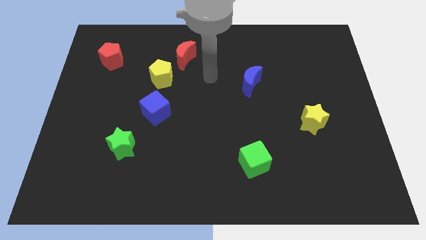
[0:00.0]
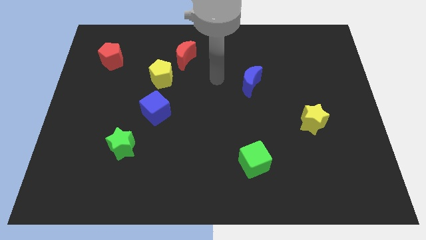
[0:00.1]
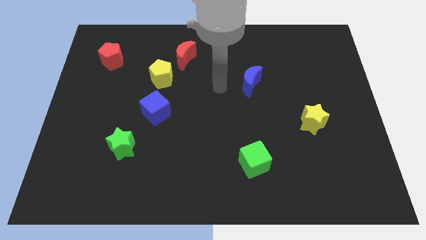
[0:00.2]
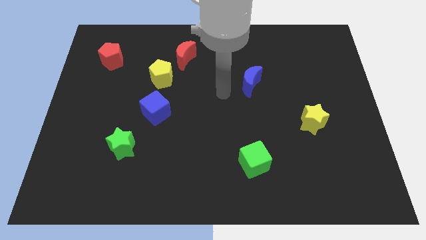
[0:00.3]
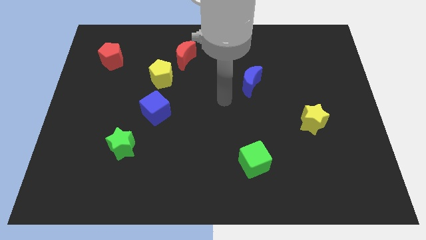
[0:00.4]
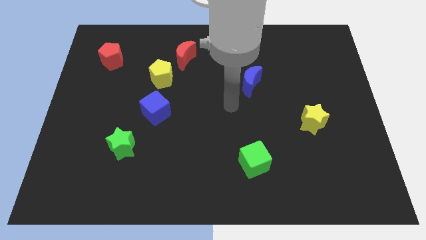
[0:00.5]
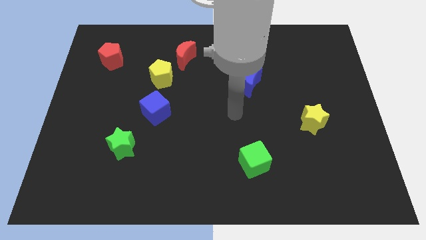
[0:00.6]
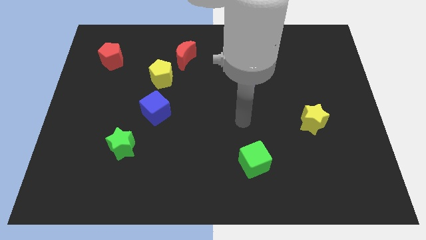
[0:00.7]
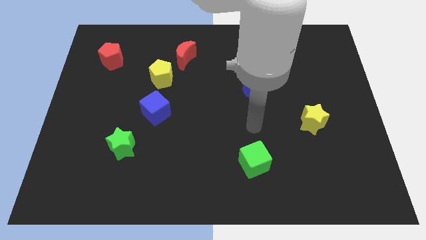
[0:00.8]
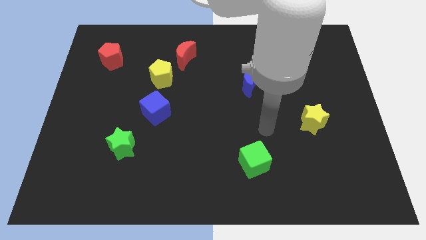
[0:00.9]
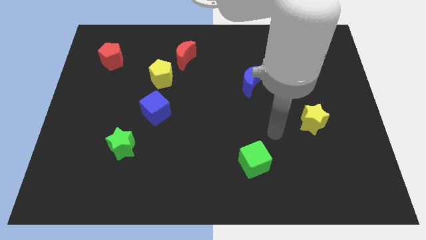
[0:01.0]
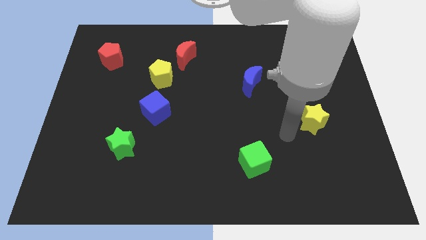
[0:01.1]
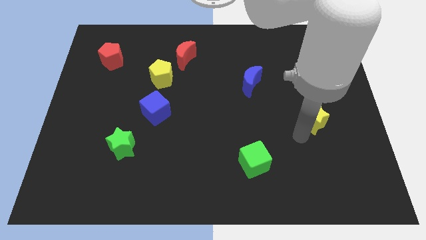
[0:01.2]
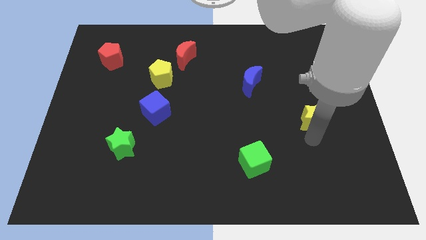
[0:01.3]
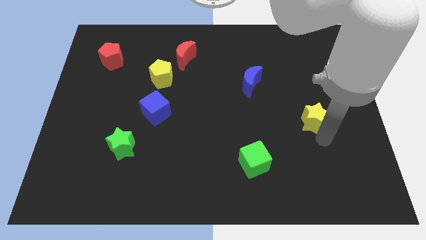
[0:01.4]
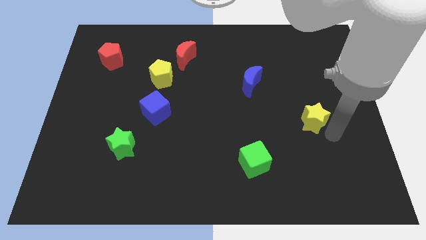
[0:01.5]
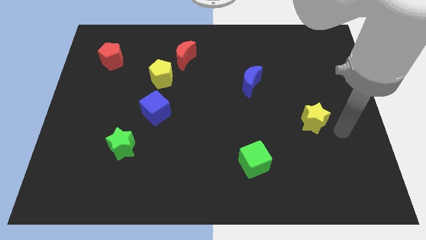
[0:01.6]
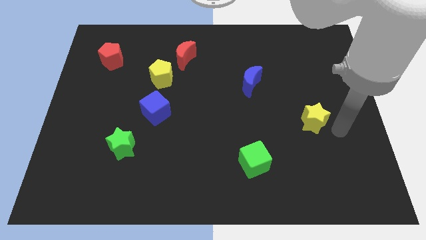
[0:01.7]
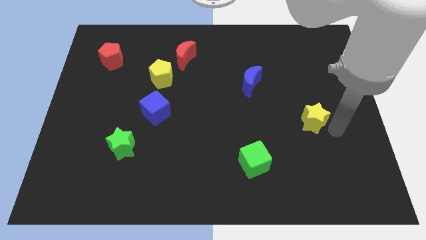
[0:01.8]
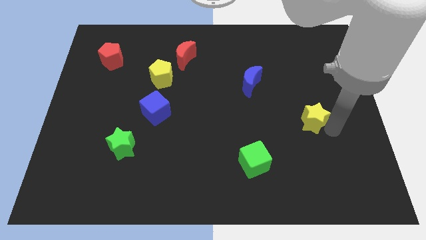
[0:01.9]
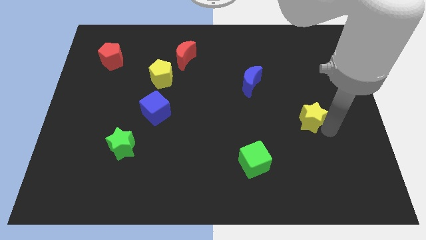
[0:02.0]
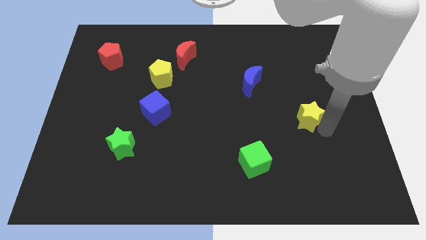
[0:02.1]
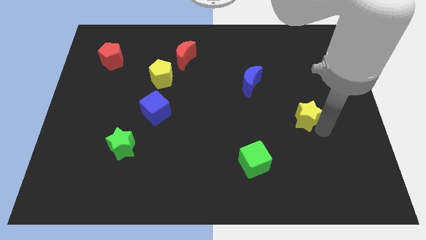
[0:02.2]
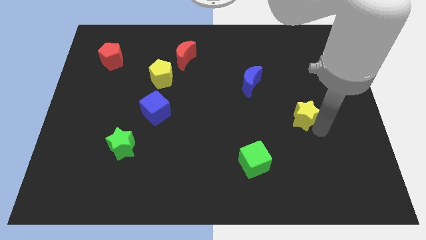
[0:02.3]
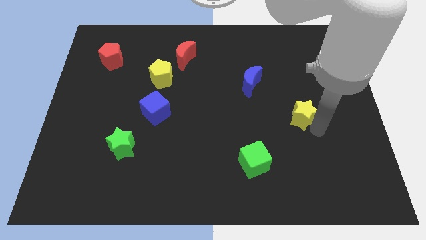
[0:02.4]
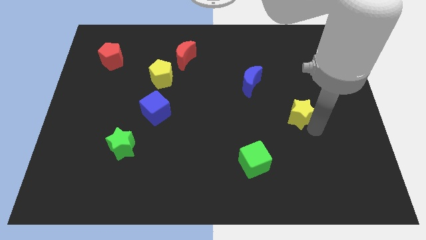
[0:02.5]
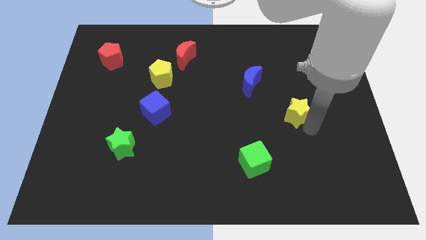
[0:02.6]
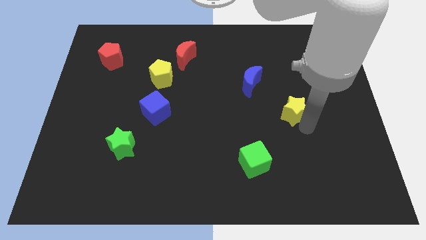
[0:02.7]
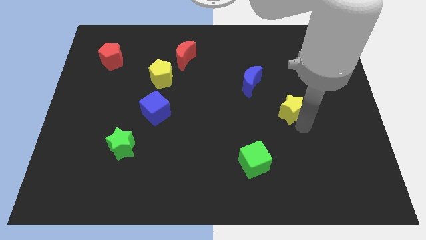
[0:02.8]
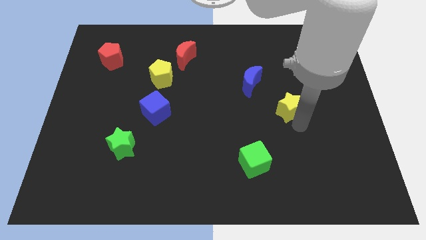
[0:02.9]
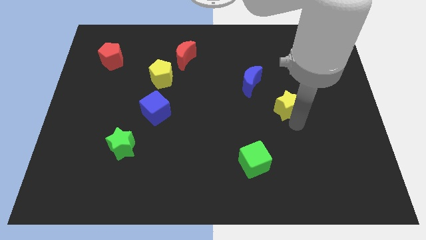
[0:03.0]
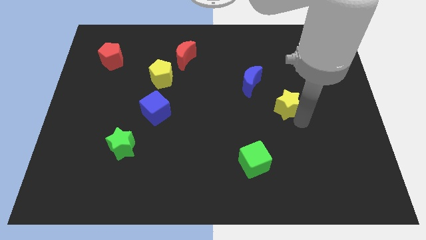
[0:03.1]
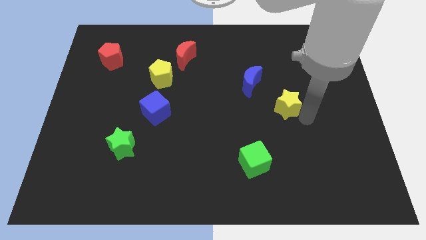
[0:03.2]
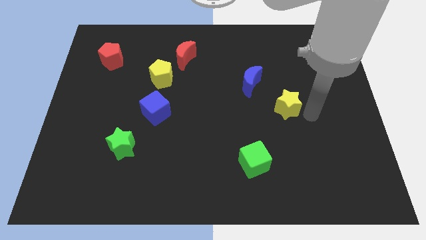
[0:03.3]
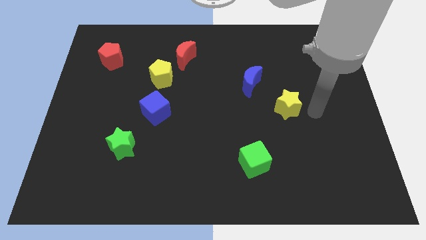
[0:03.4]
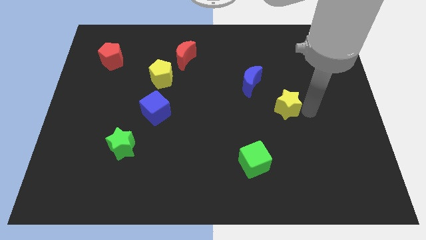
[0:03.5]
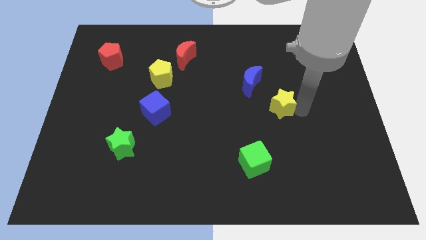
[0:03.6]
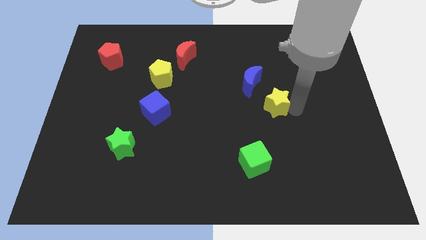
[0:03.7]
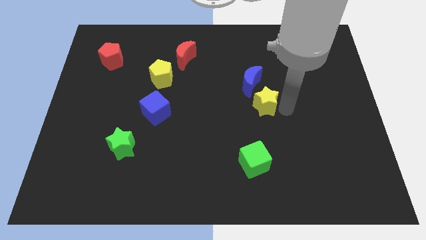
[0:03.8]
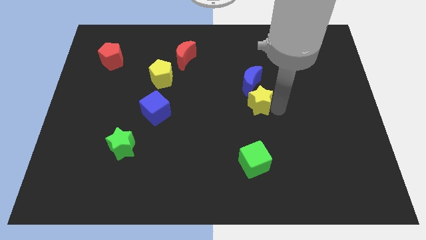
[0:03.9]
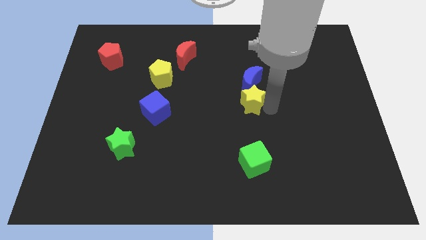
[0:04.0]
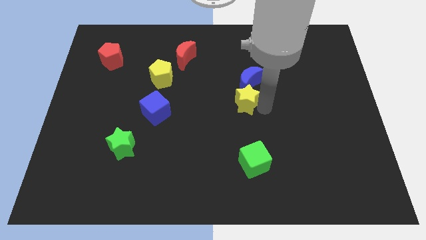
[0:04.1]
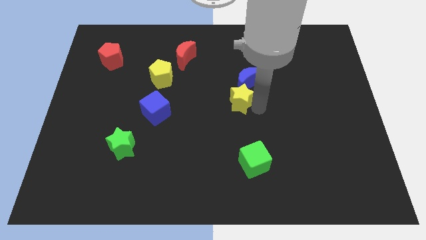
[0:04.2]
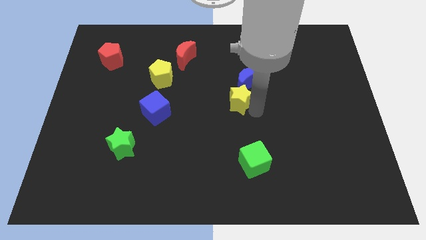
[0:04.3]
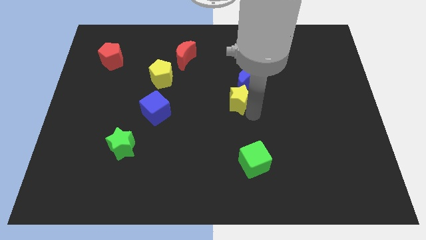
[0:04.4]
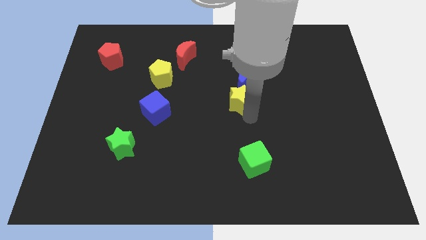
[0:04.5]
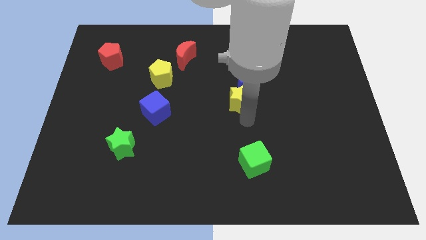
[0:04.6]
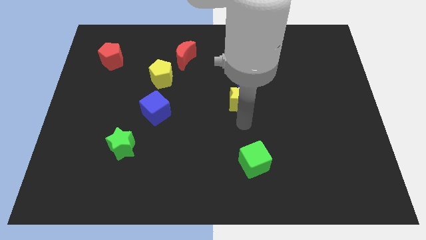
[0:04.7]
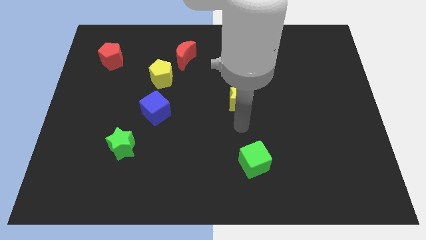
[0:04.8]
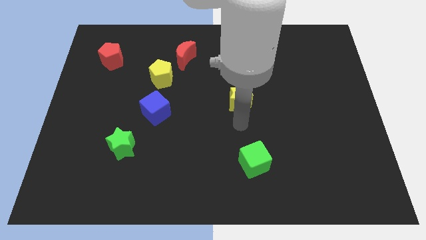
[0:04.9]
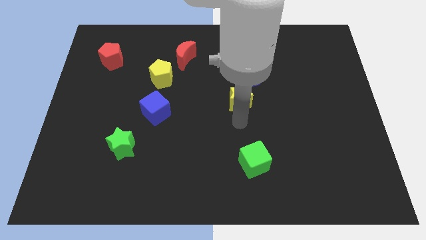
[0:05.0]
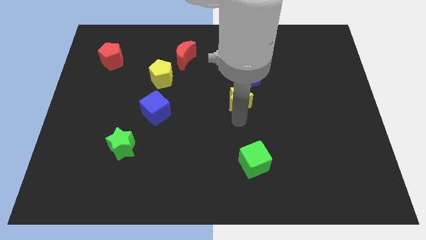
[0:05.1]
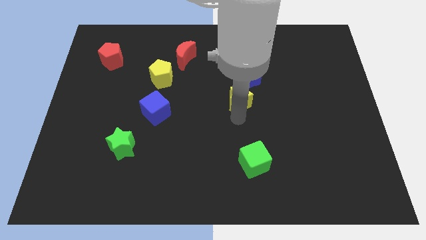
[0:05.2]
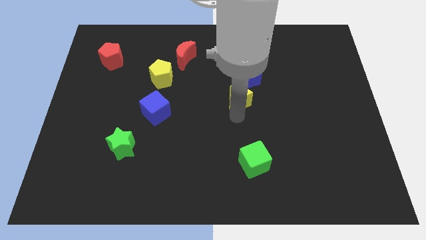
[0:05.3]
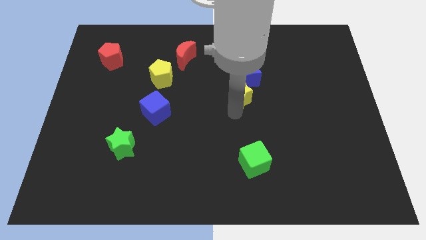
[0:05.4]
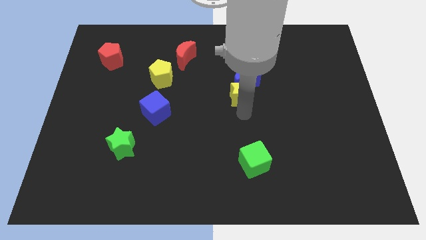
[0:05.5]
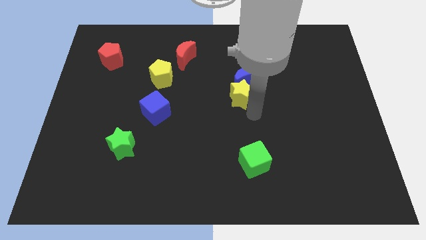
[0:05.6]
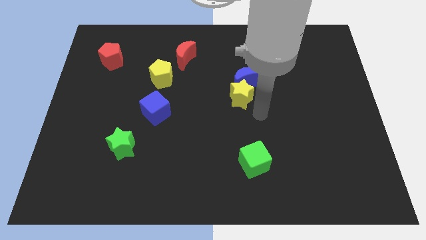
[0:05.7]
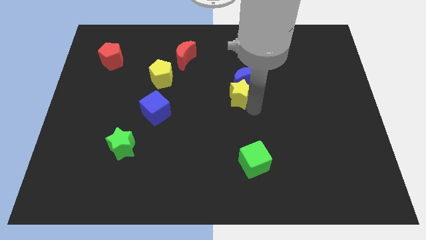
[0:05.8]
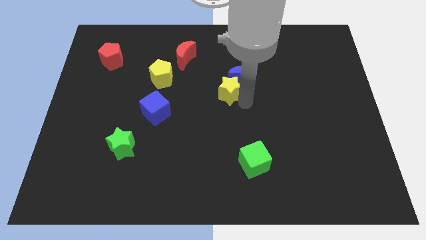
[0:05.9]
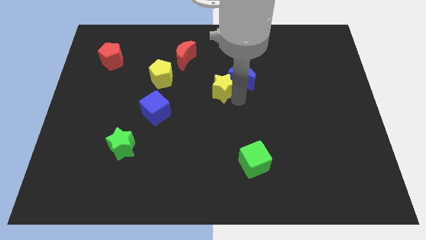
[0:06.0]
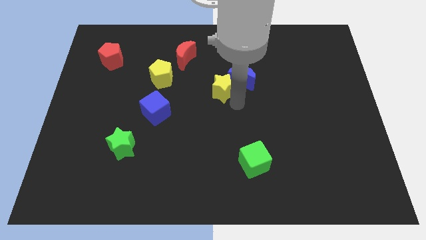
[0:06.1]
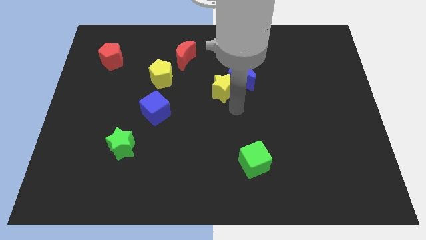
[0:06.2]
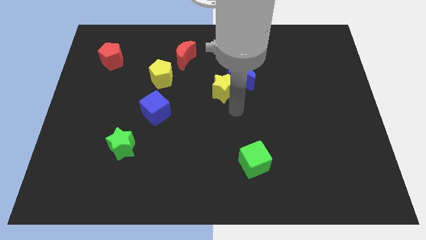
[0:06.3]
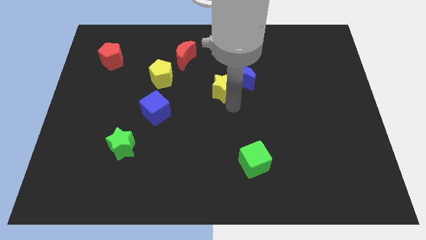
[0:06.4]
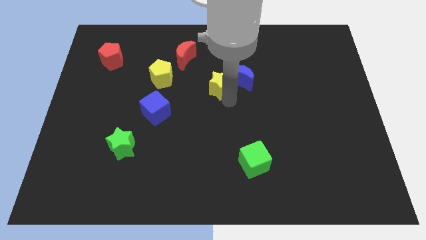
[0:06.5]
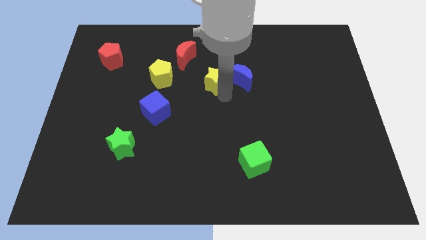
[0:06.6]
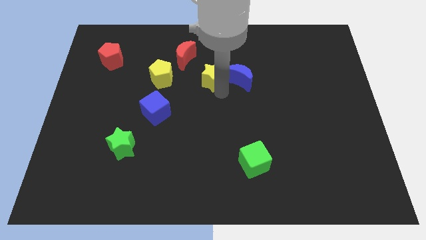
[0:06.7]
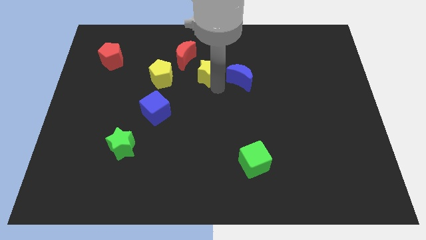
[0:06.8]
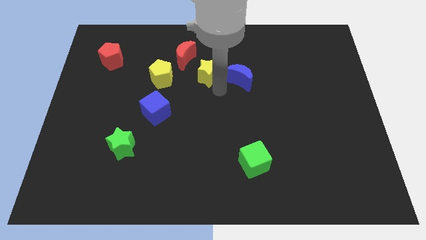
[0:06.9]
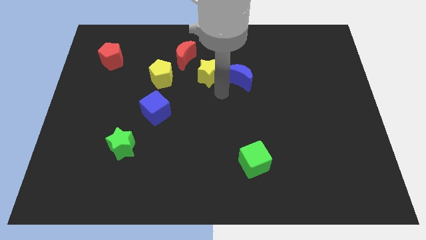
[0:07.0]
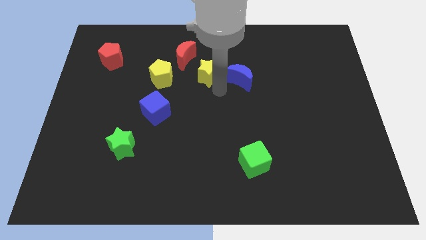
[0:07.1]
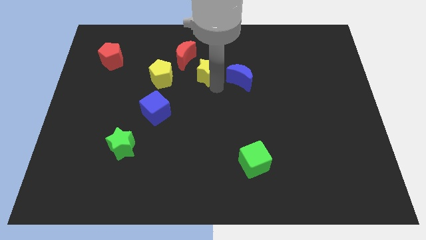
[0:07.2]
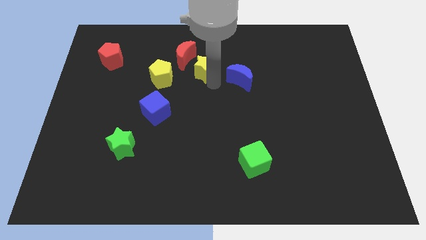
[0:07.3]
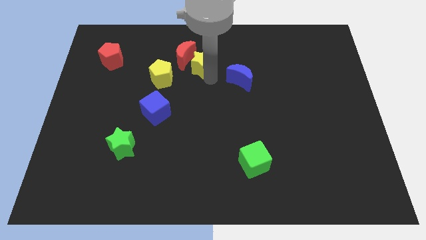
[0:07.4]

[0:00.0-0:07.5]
put the yellow star towards the red moon
